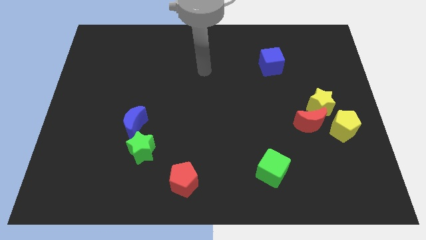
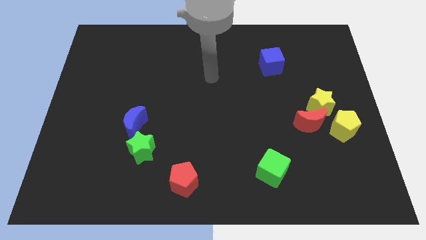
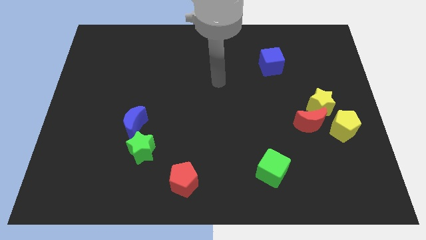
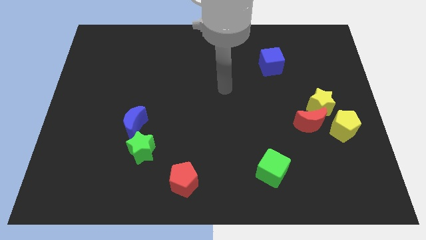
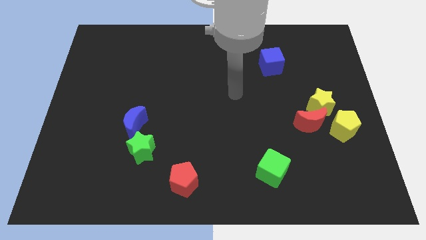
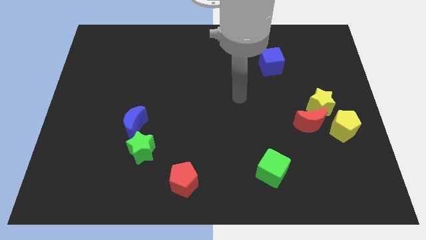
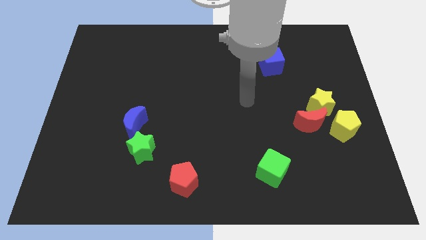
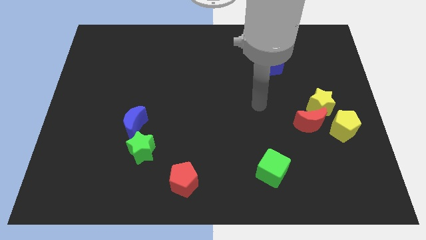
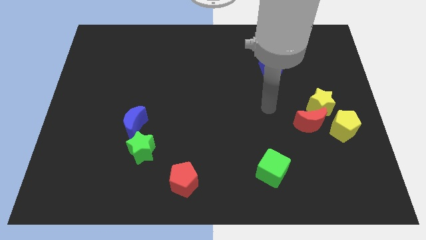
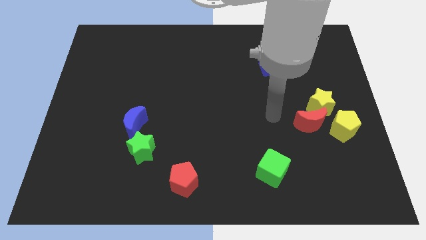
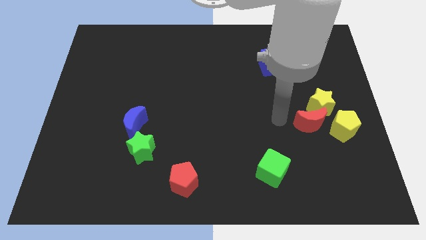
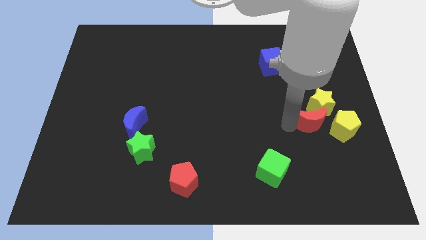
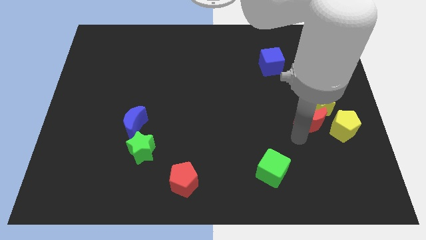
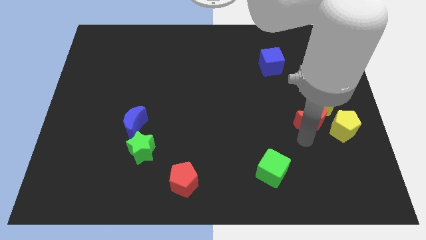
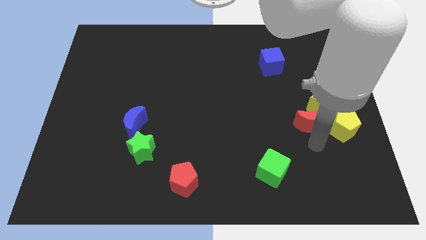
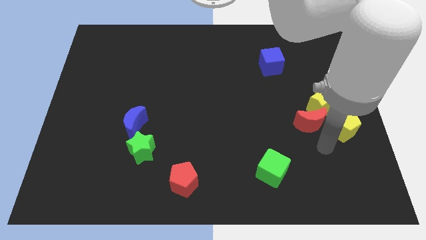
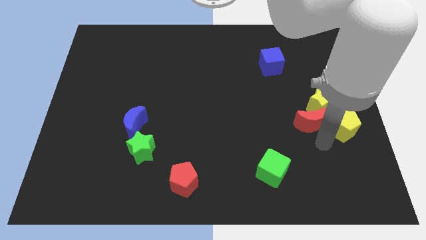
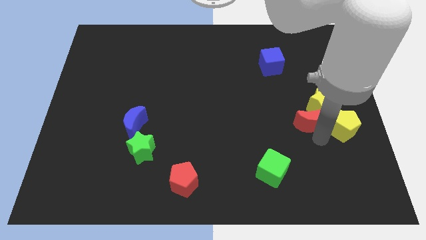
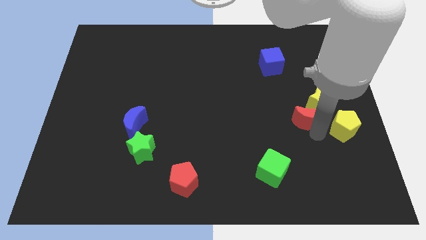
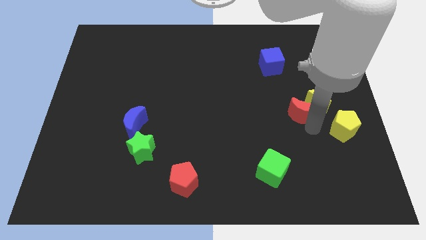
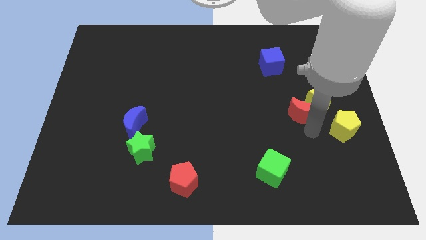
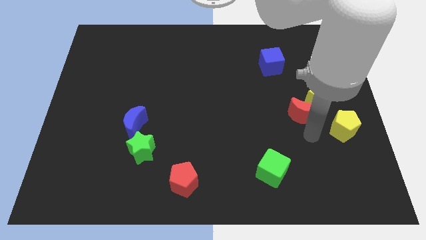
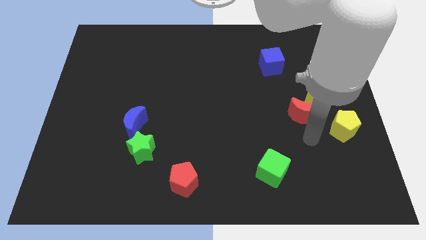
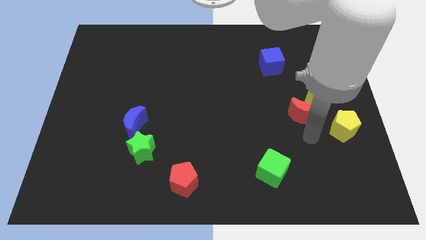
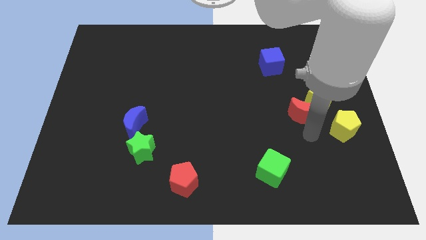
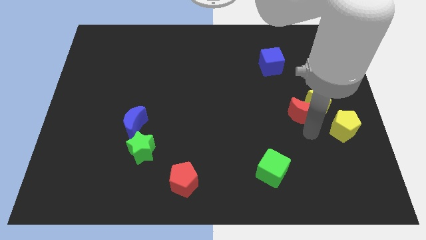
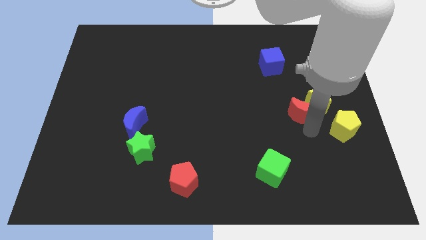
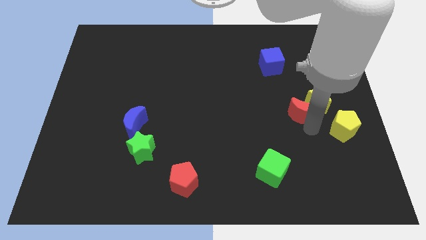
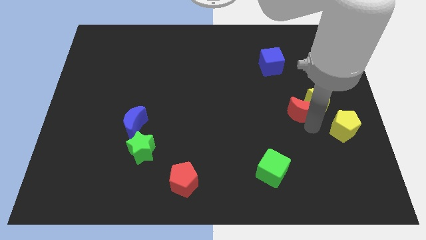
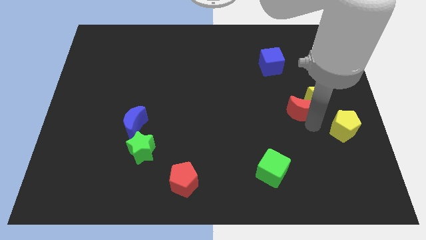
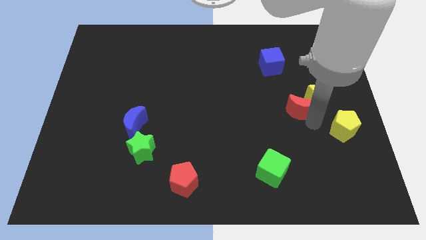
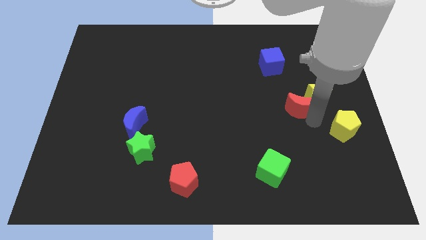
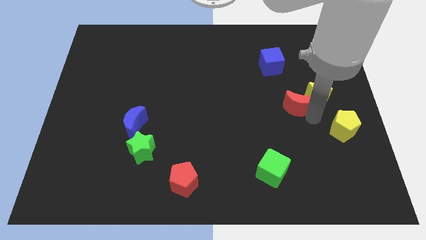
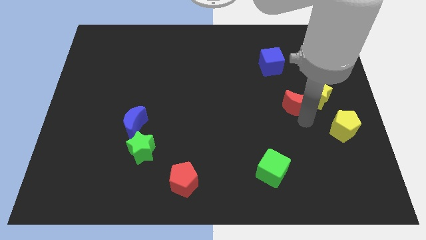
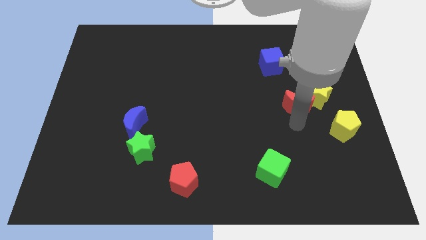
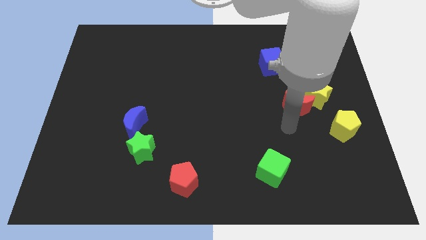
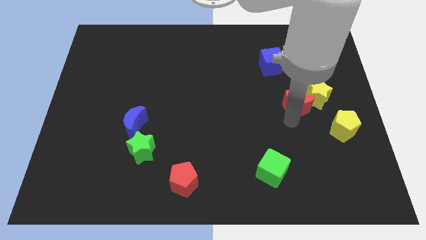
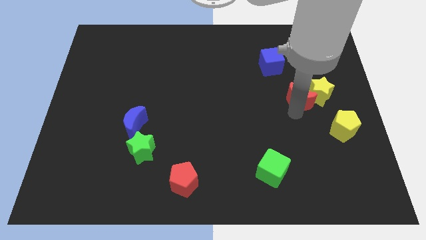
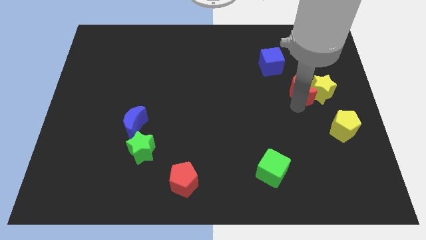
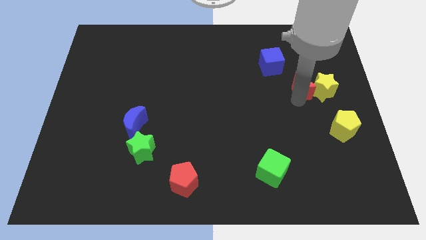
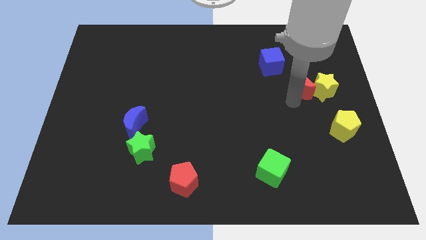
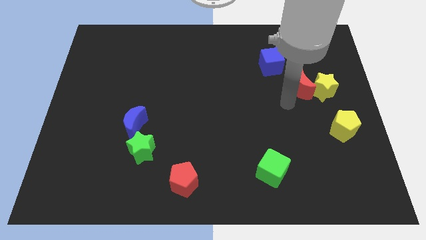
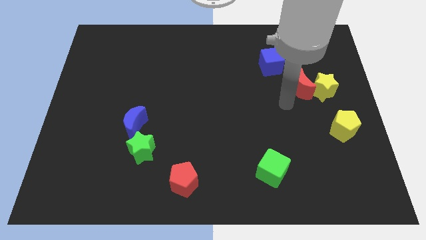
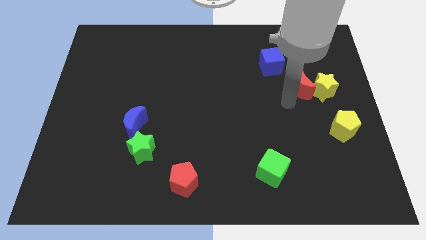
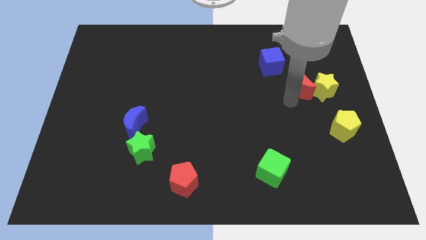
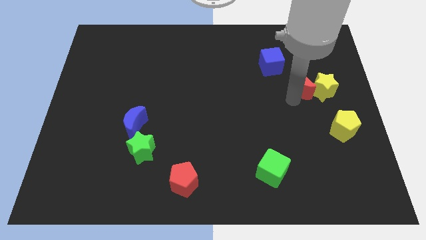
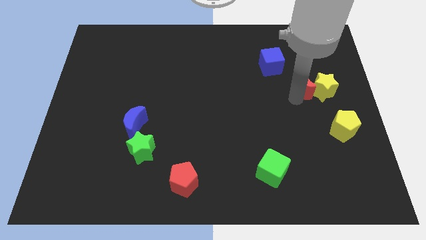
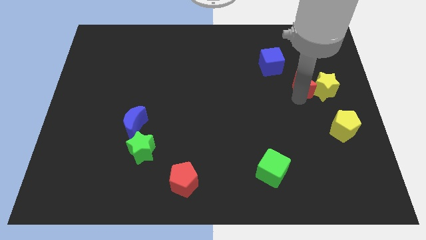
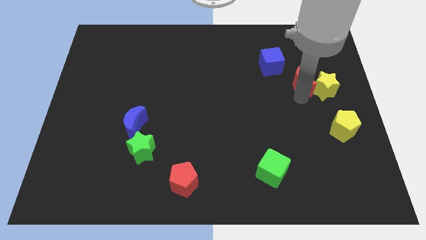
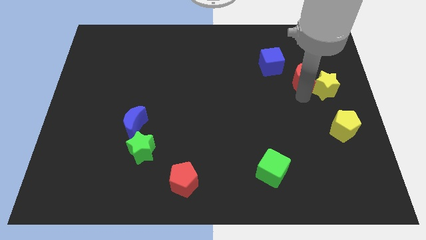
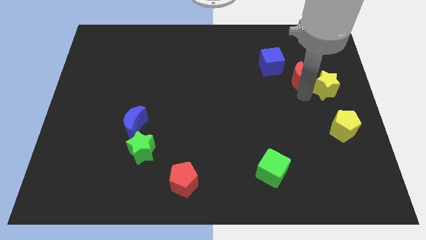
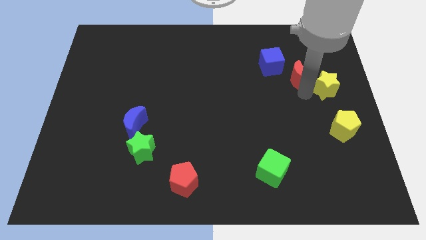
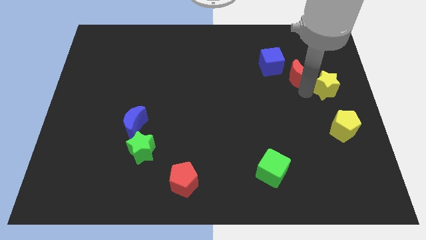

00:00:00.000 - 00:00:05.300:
slide the red moon to the right of the blue cube

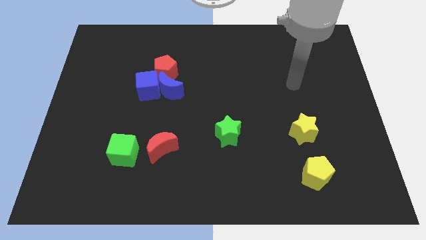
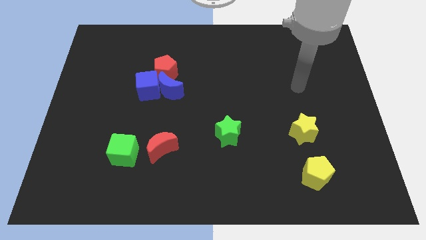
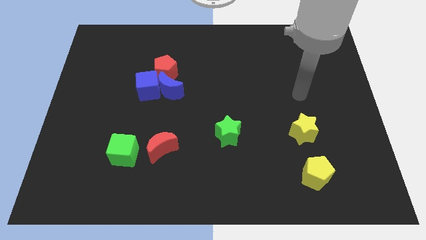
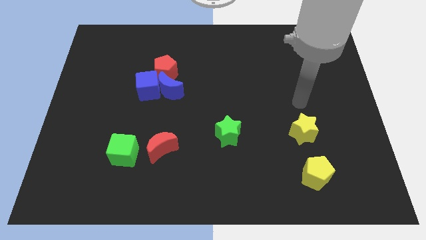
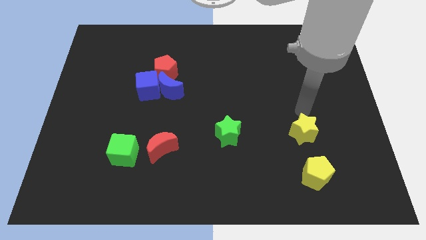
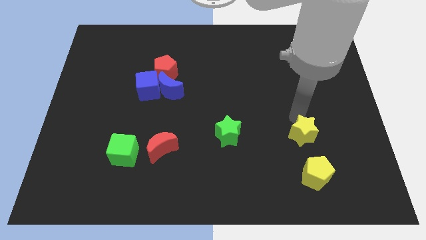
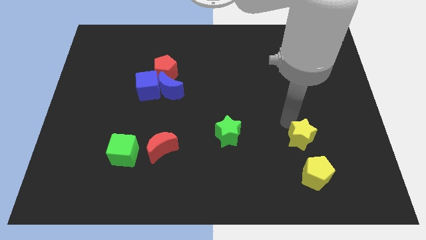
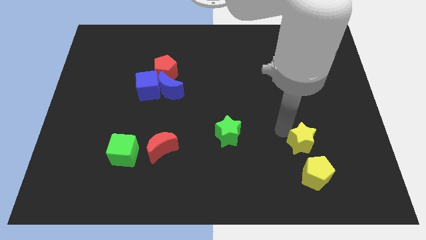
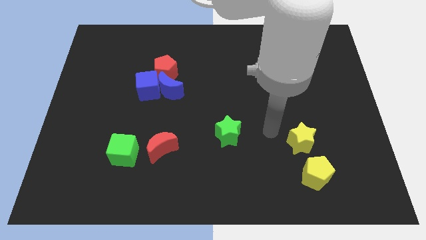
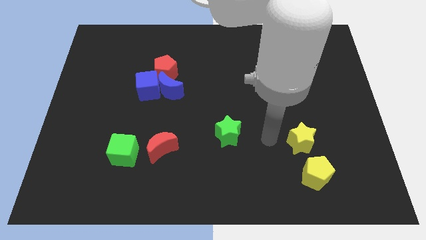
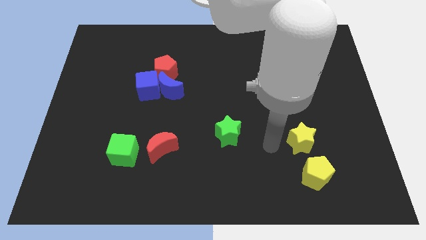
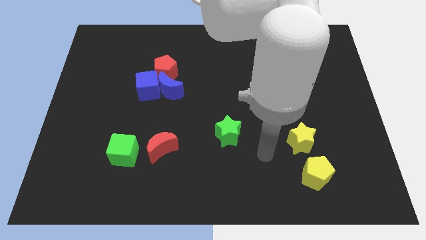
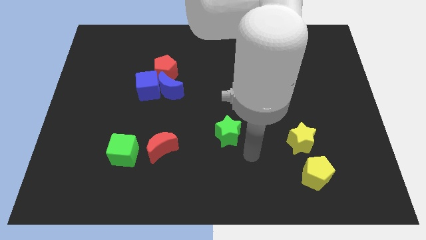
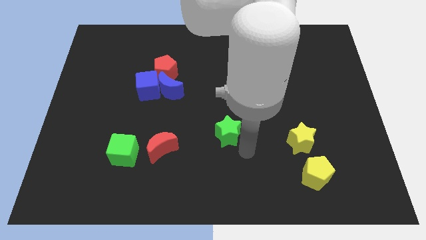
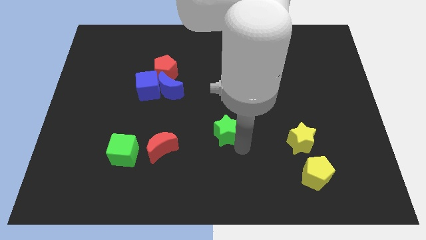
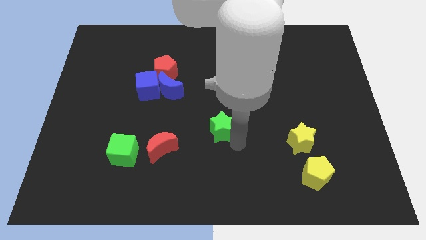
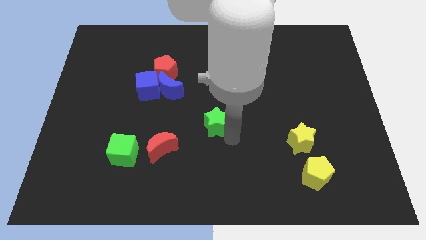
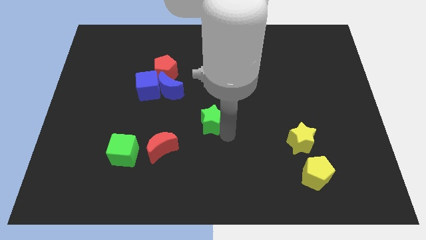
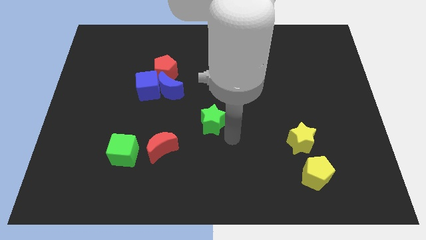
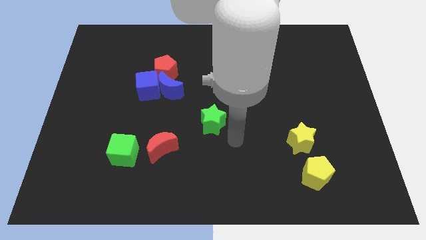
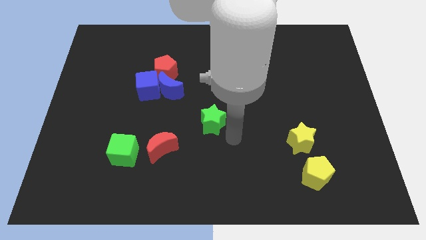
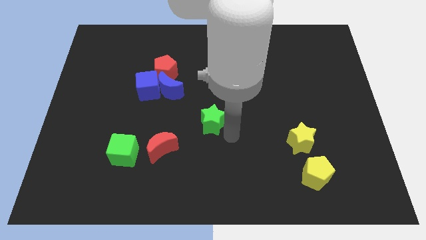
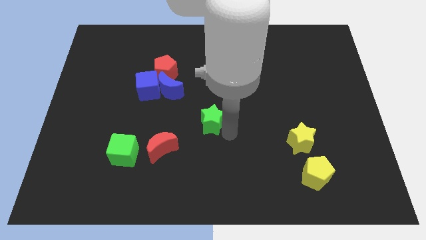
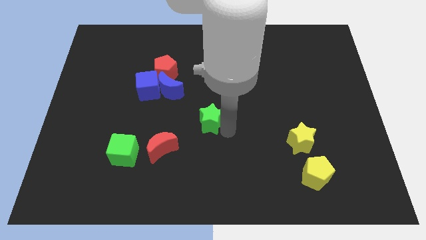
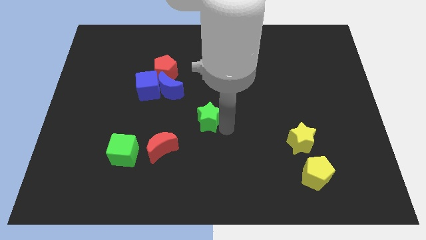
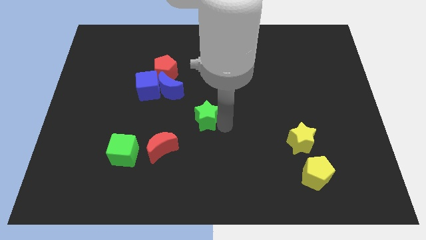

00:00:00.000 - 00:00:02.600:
push the green star to the bottom right of the blue moon
